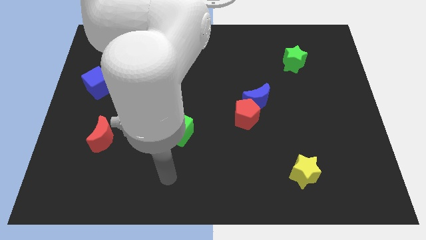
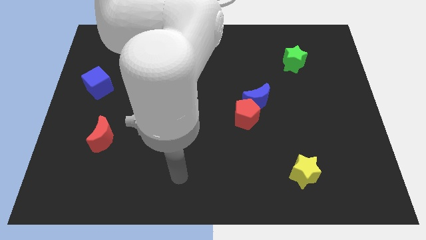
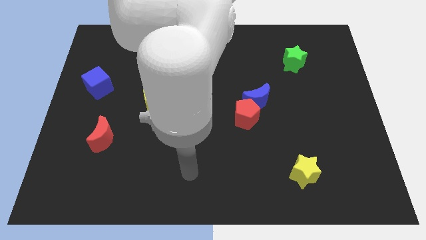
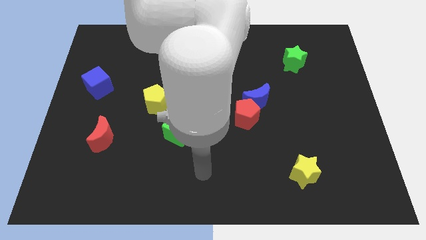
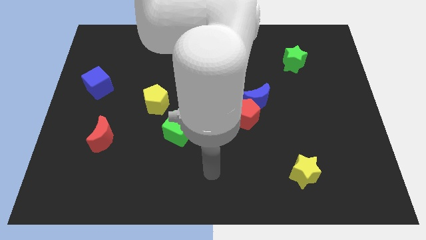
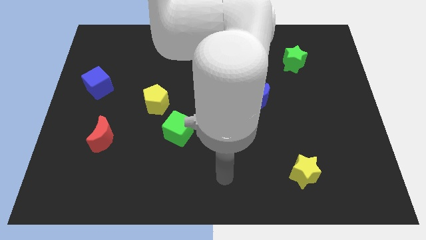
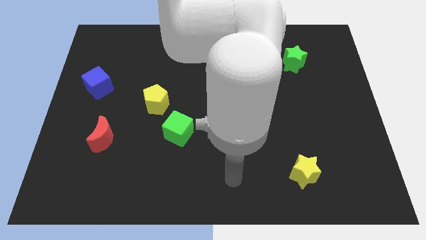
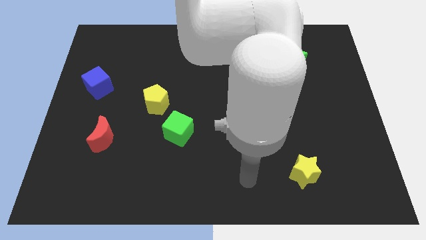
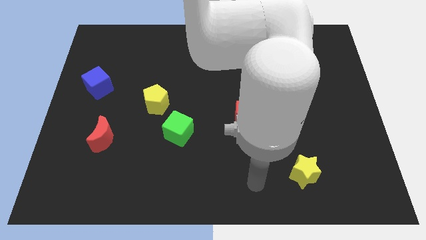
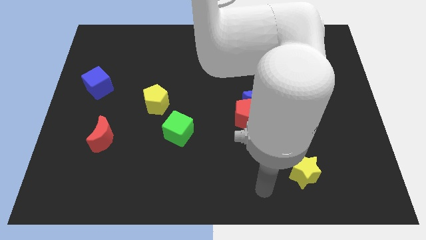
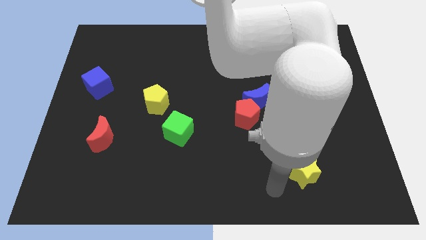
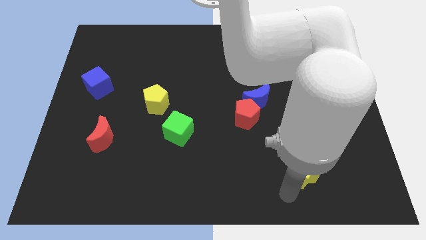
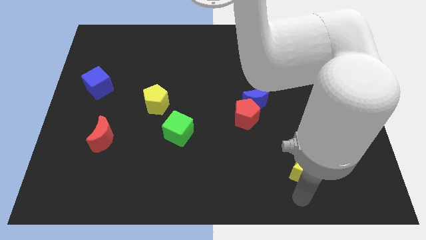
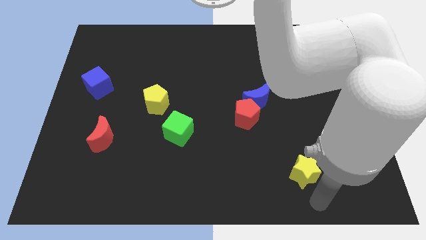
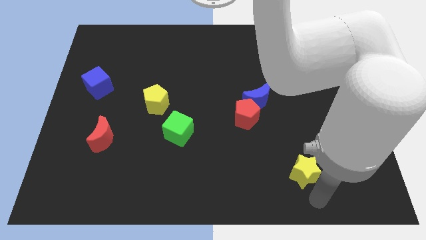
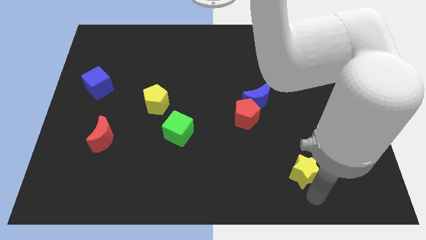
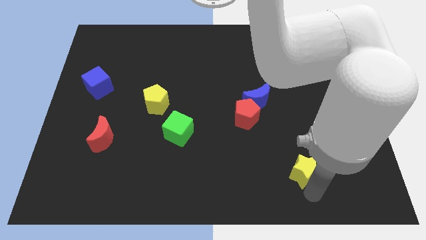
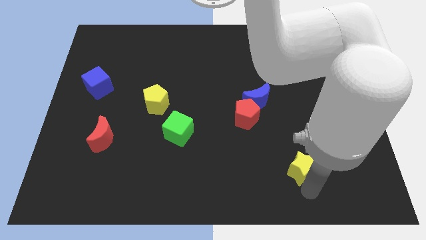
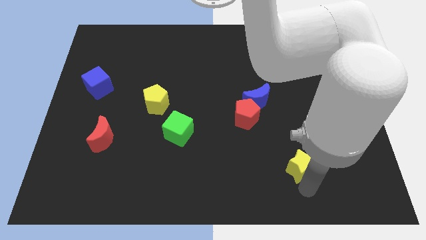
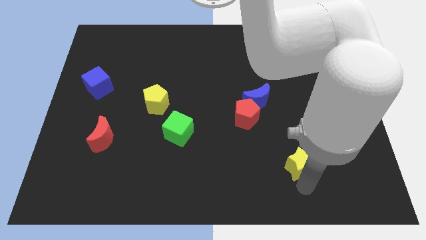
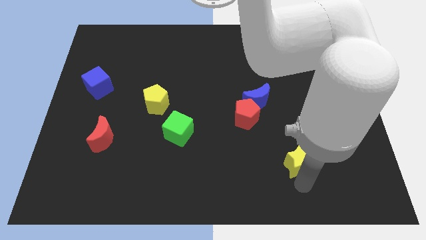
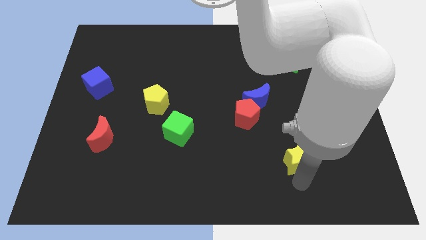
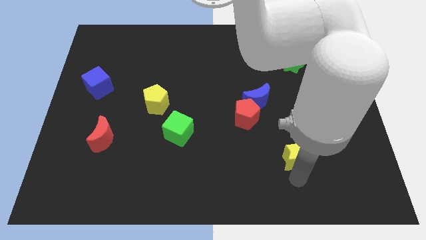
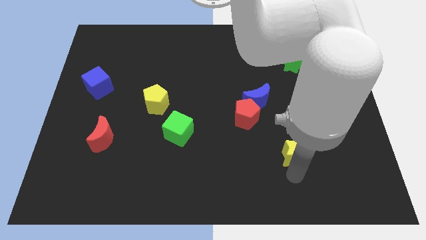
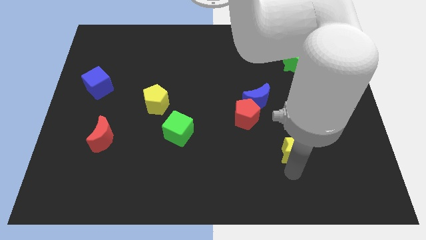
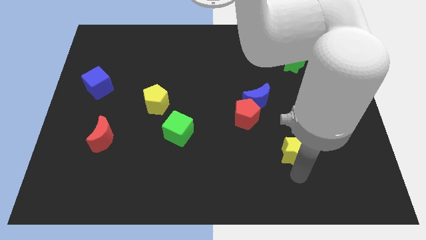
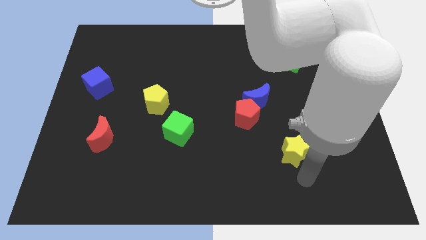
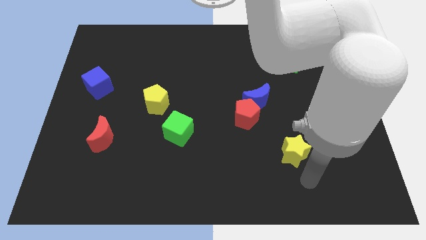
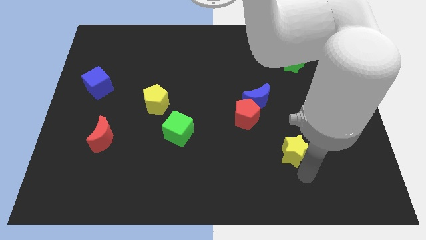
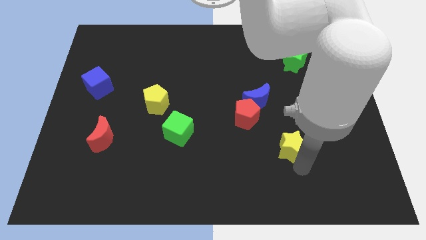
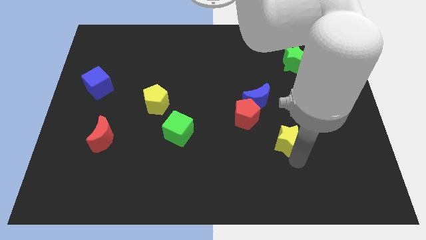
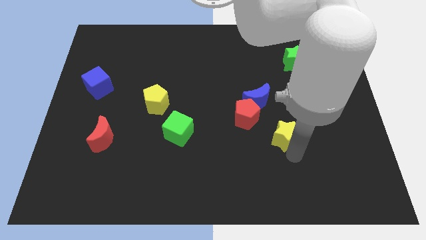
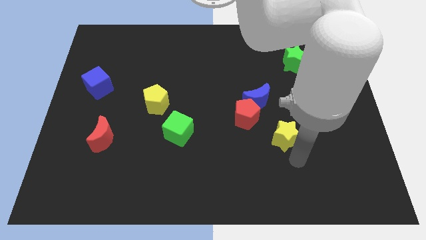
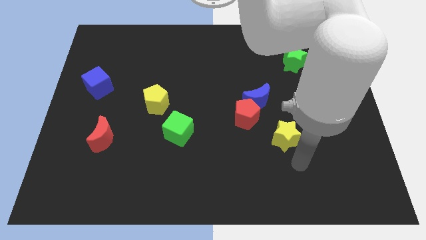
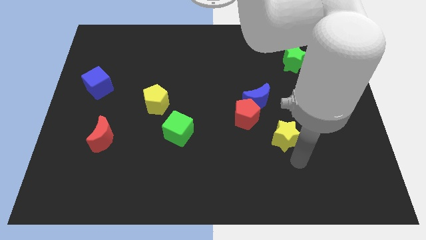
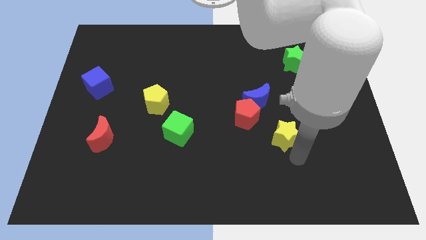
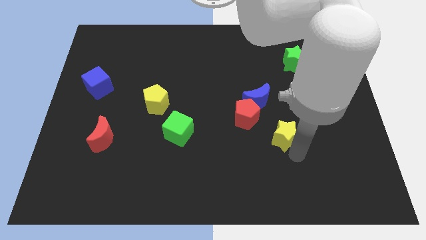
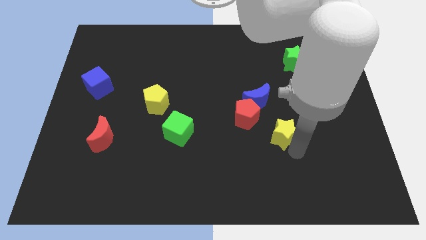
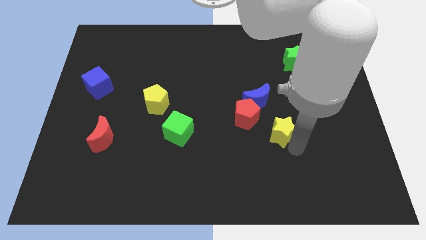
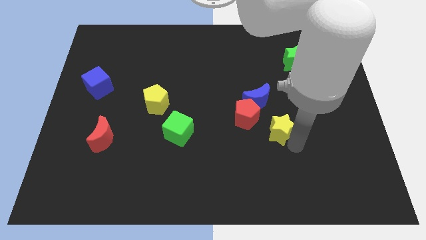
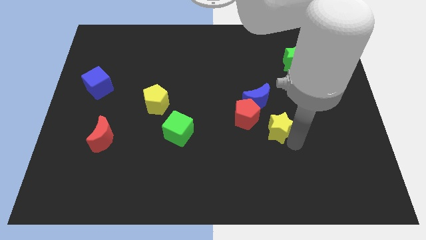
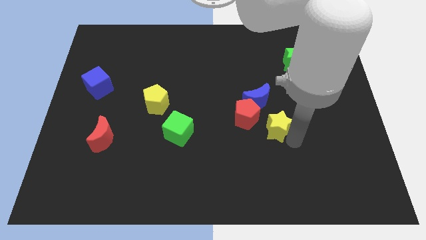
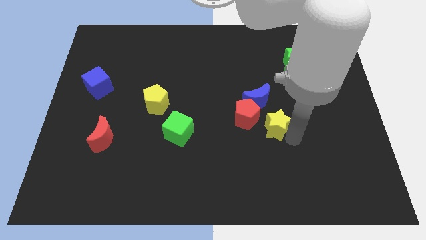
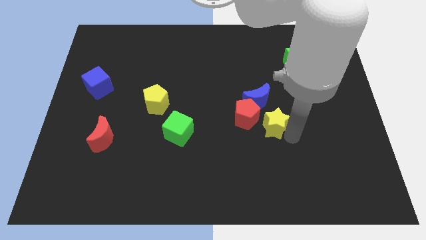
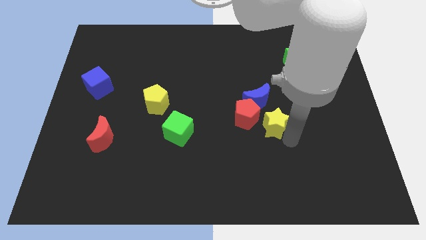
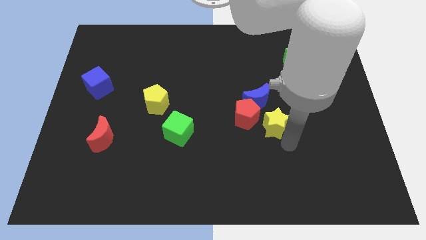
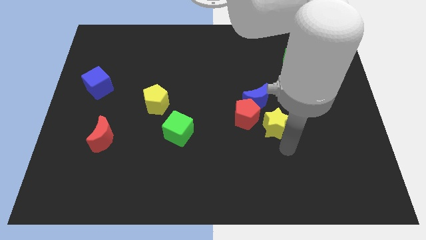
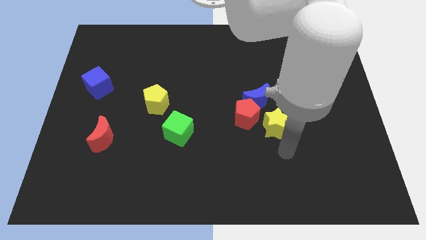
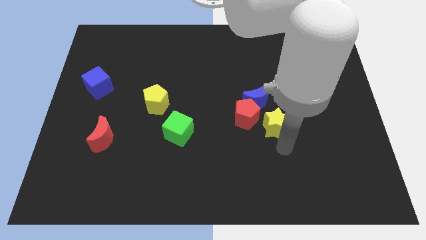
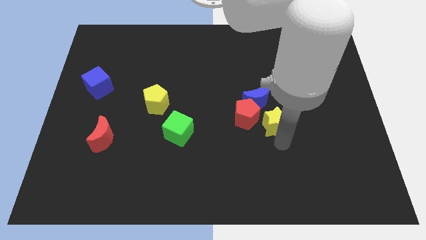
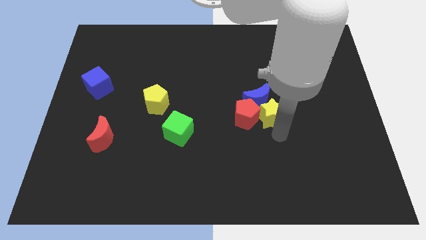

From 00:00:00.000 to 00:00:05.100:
move the yellow star to the blue moon

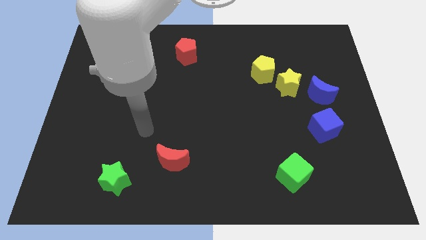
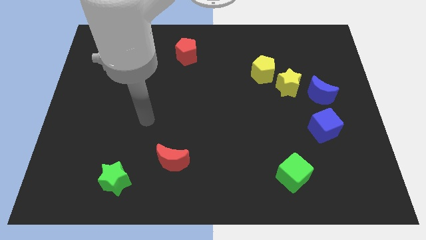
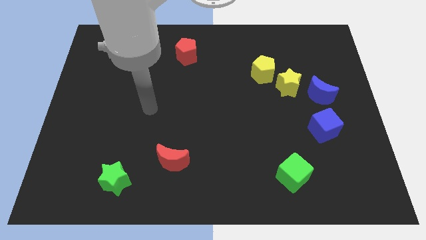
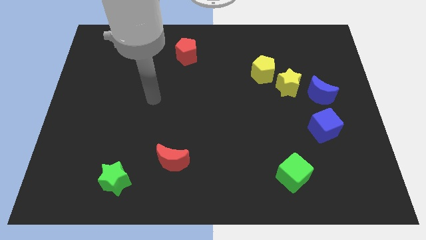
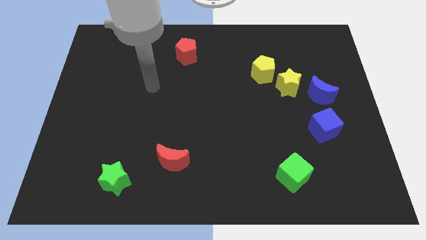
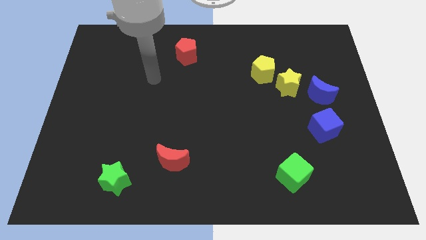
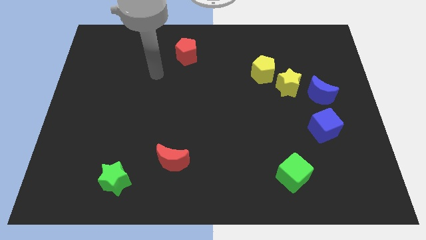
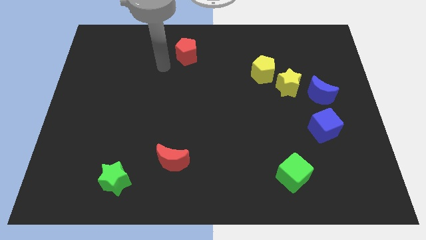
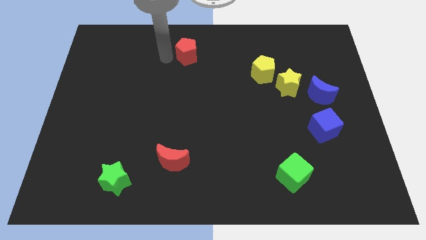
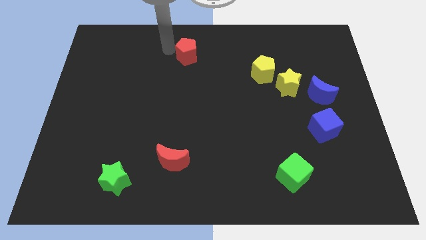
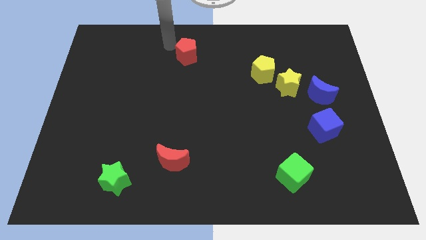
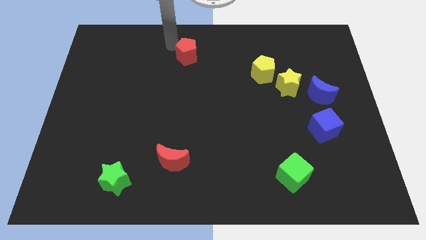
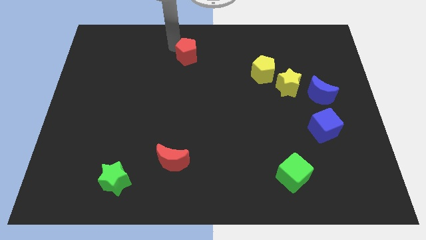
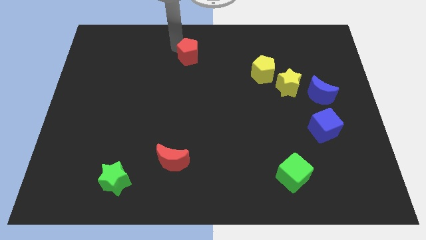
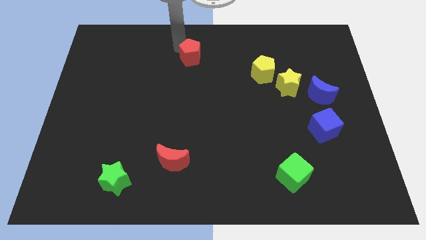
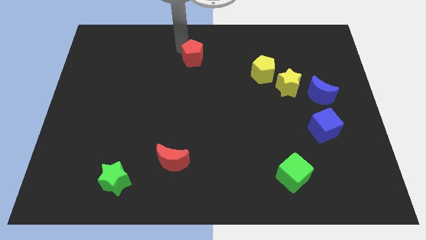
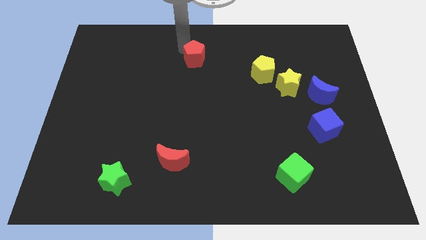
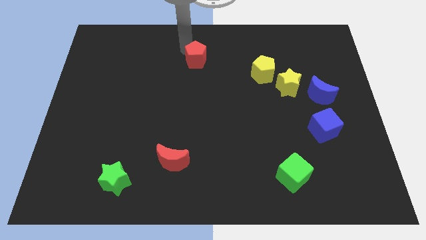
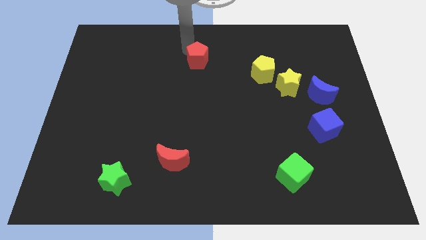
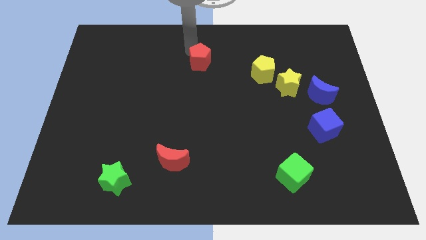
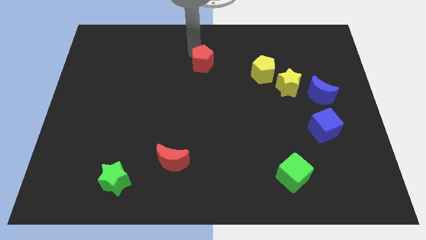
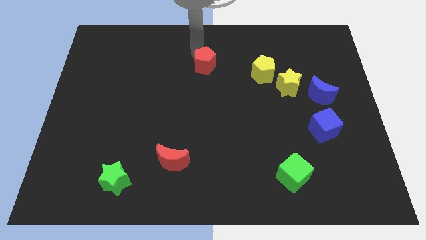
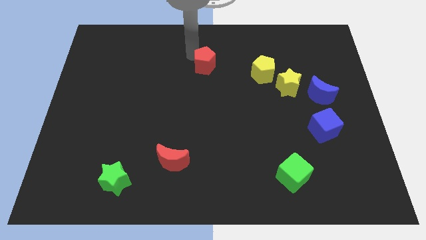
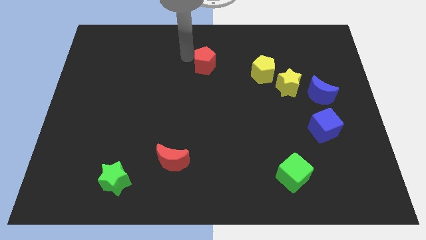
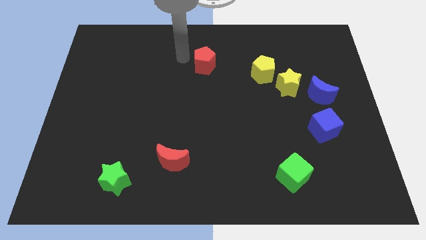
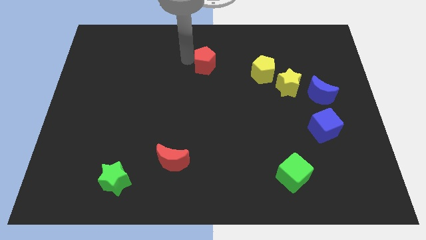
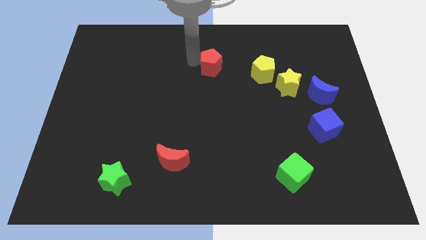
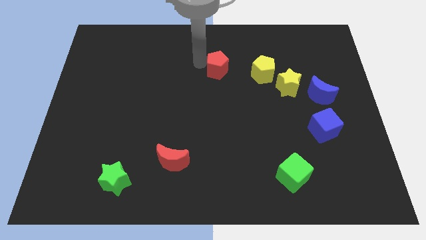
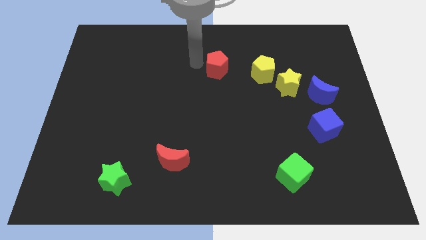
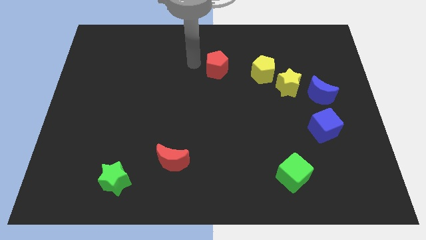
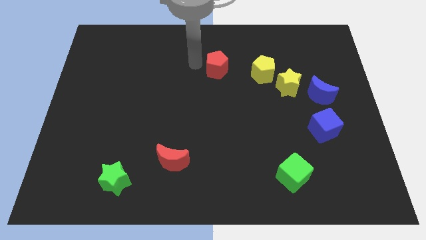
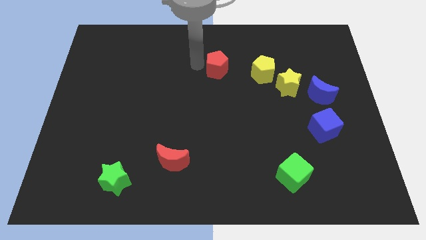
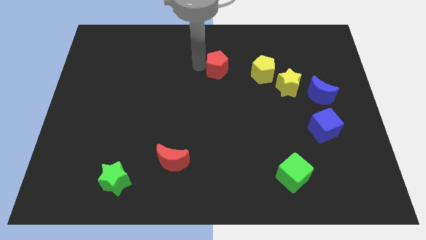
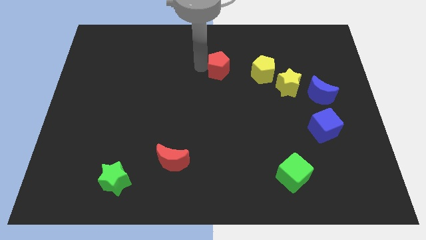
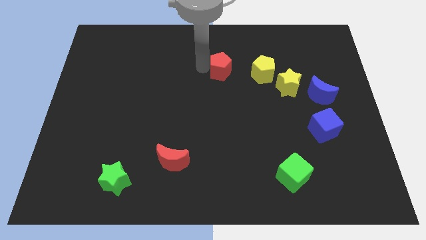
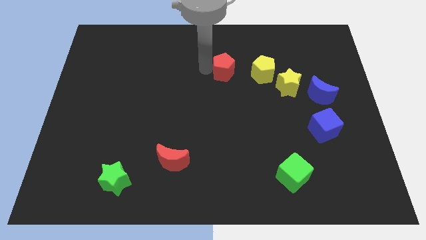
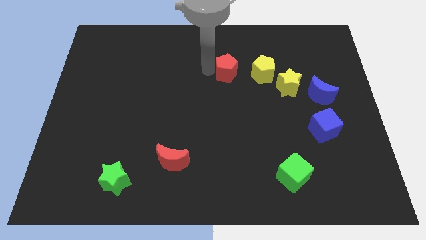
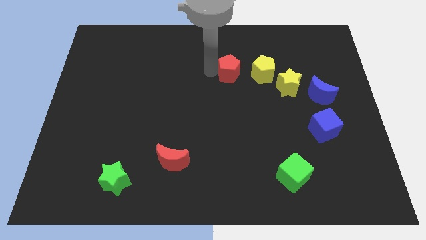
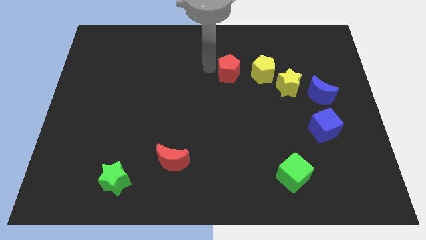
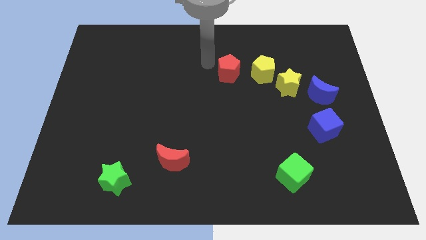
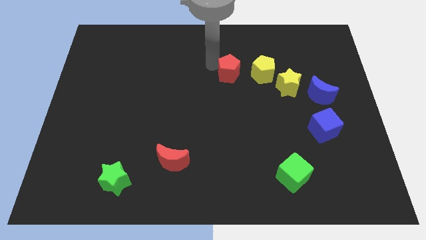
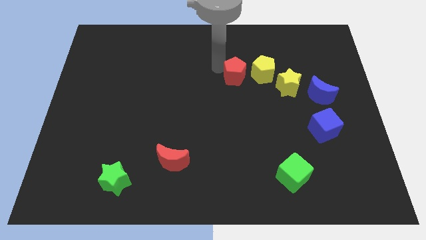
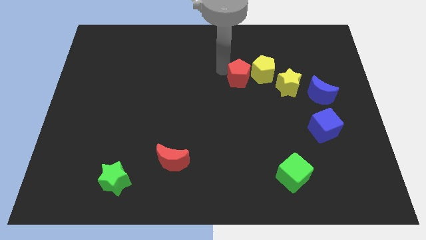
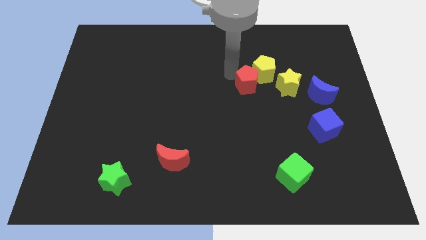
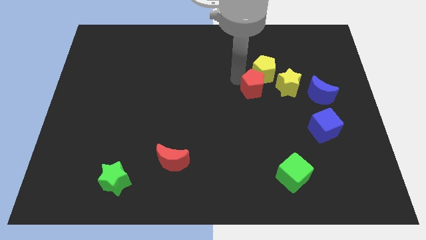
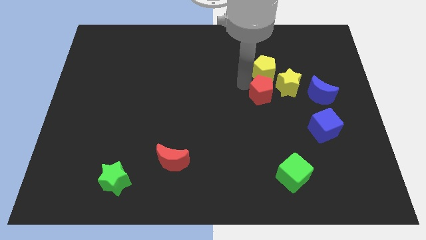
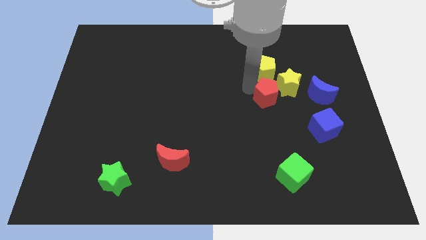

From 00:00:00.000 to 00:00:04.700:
slide the red pentagon towards the yellow star
